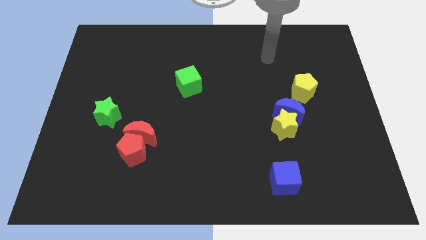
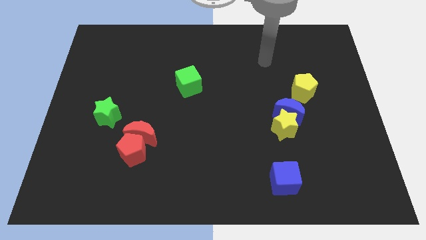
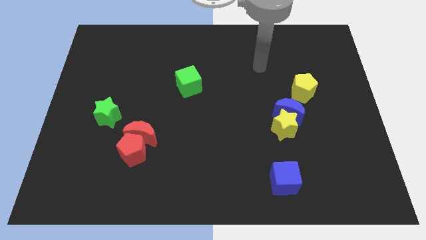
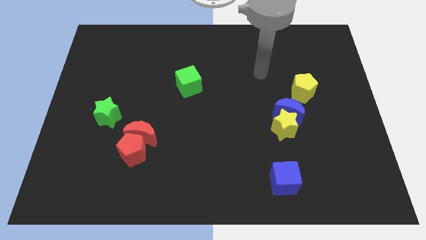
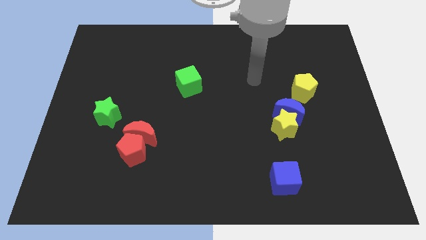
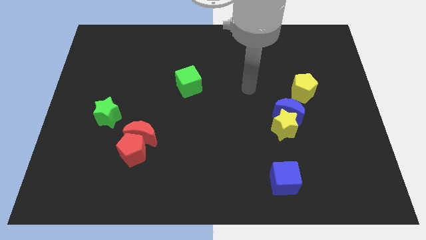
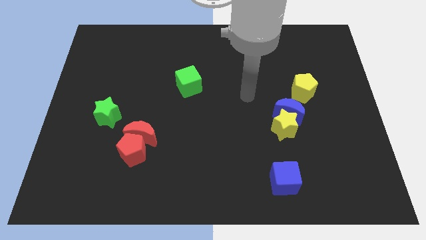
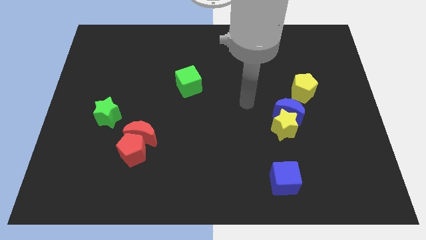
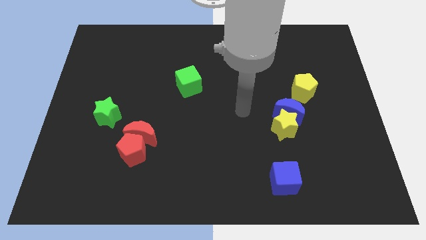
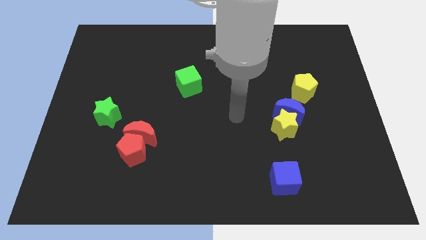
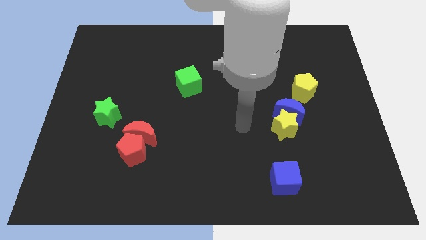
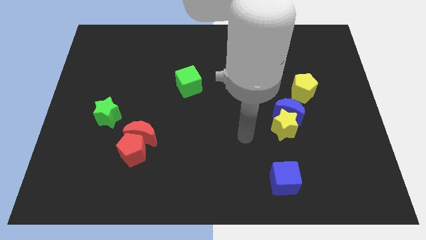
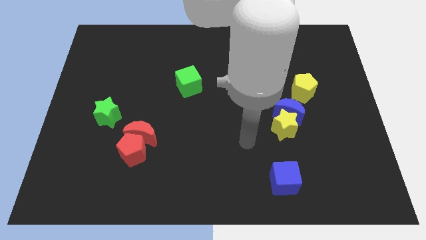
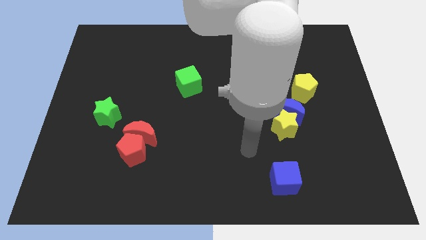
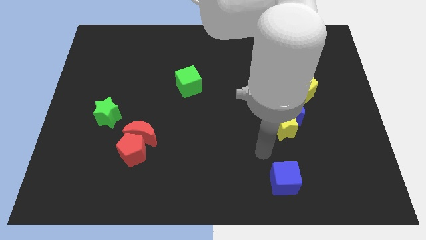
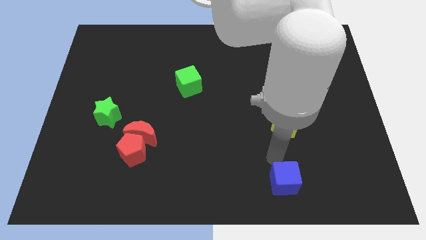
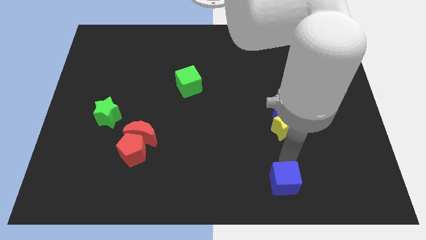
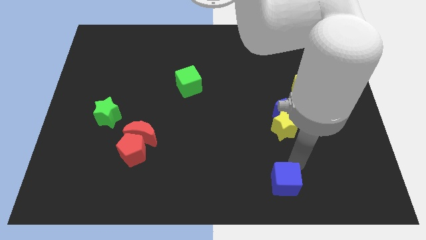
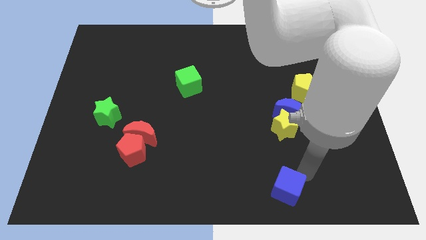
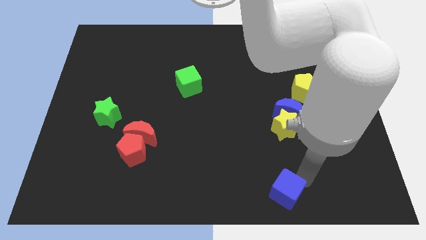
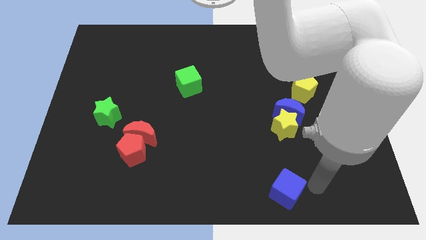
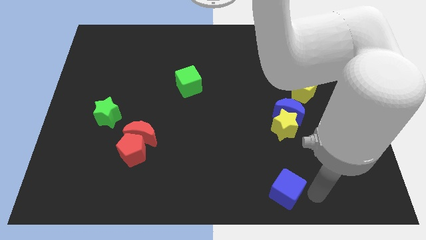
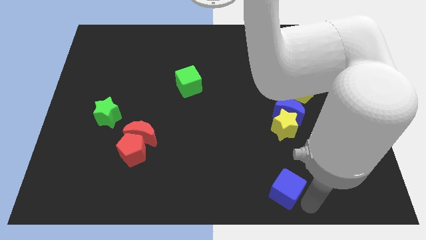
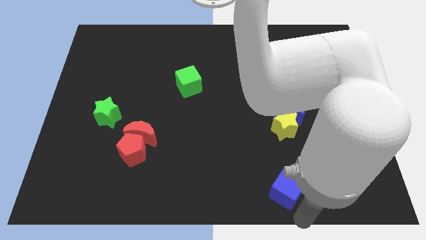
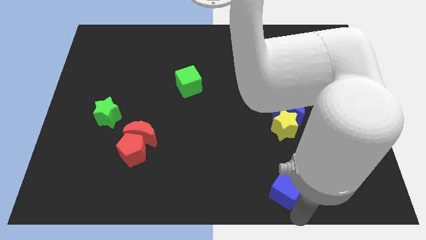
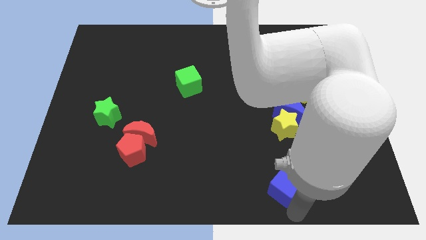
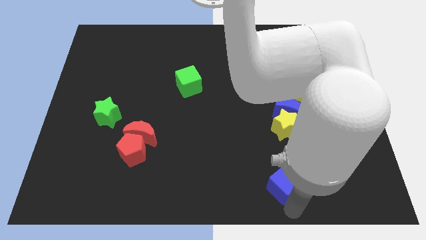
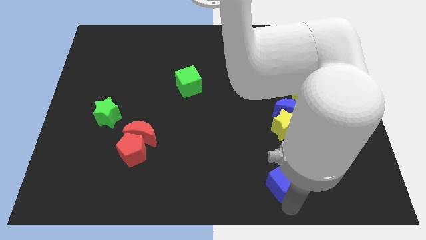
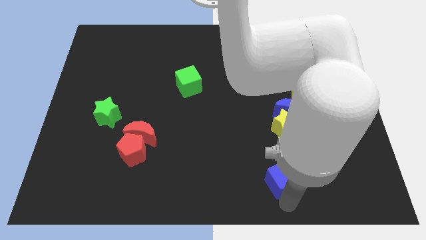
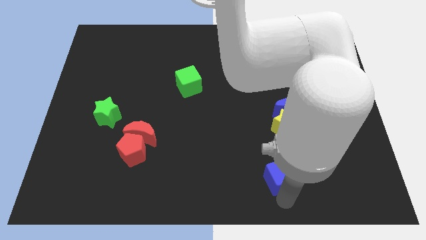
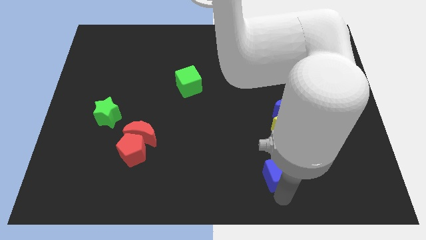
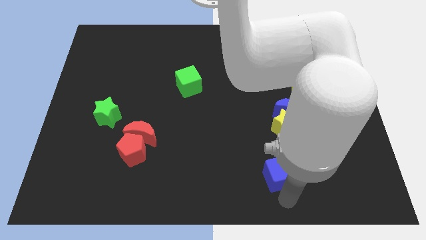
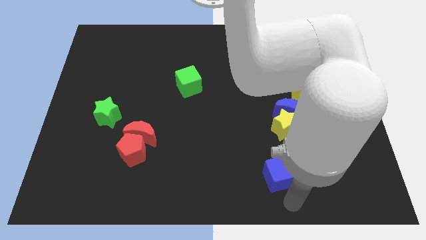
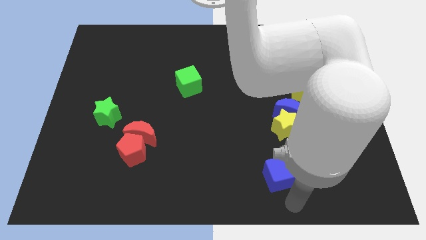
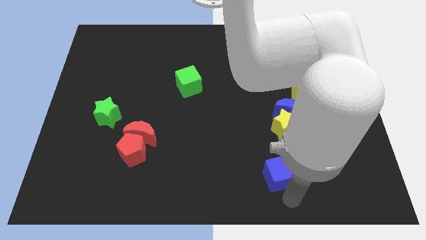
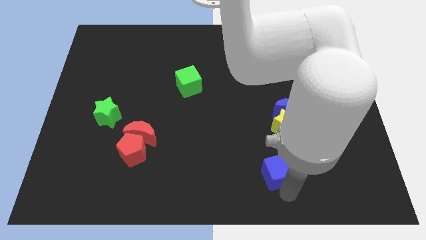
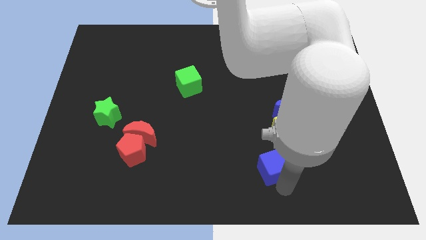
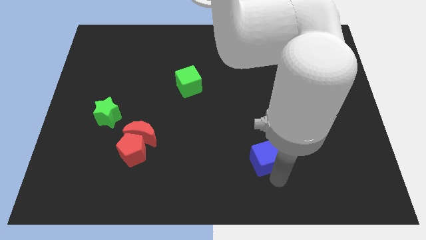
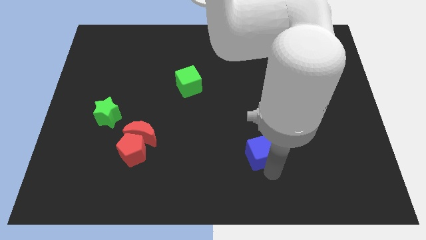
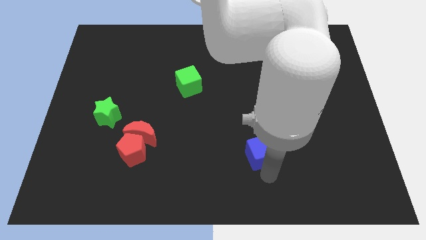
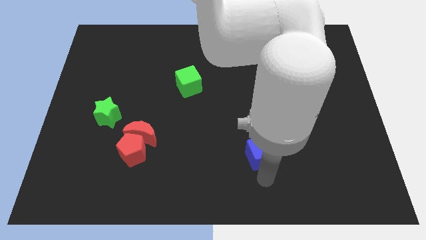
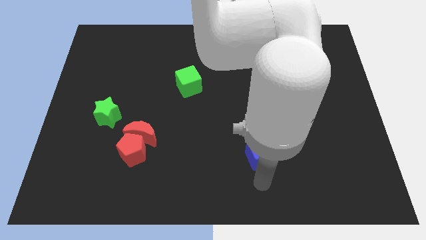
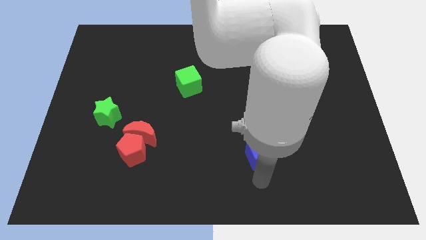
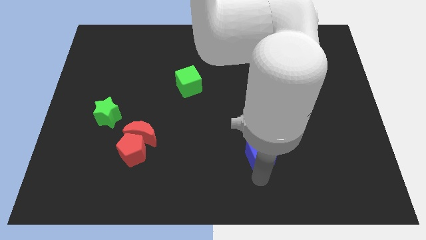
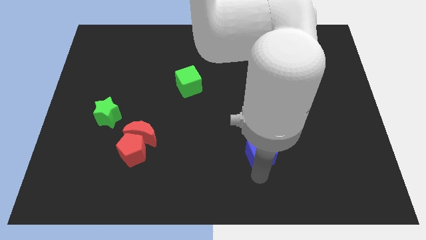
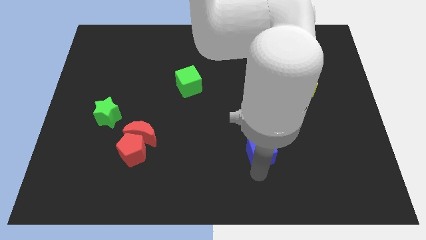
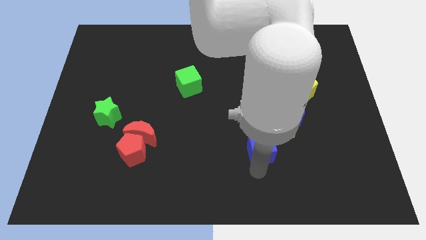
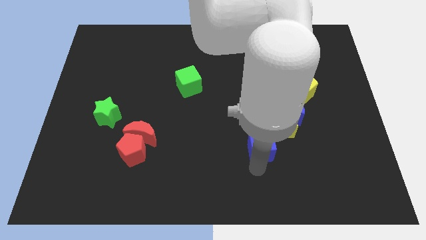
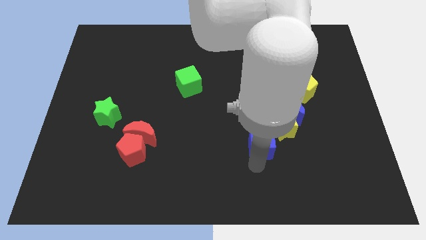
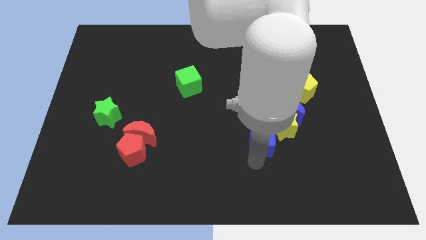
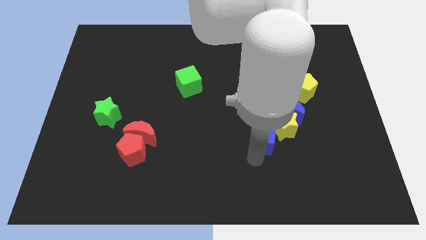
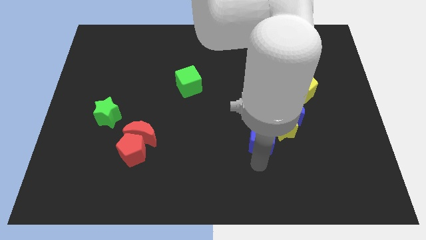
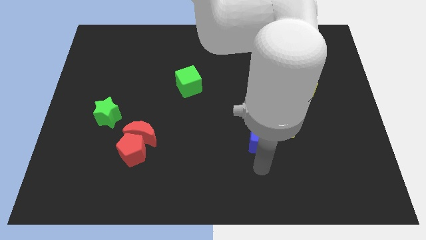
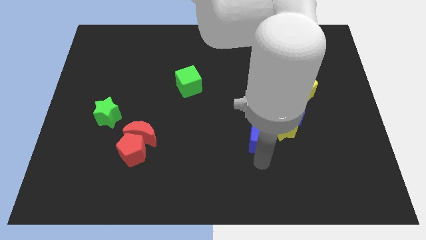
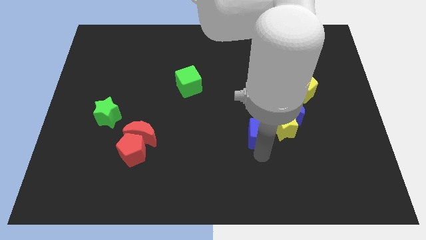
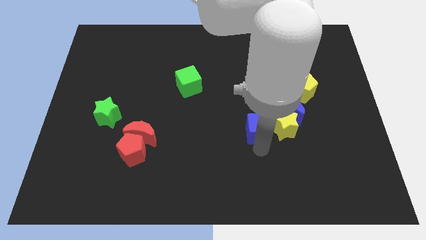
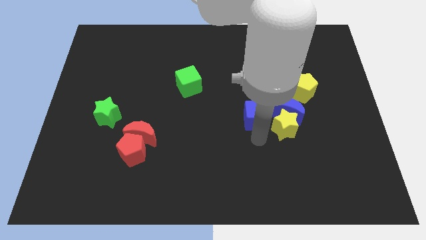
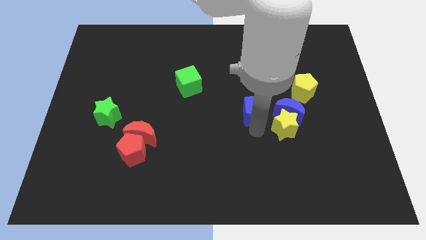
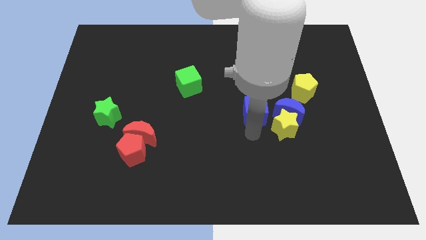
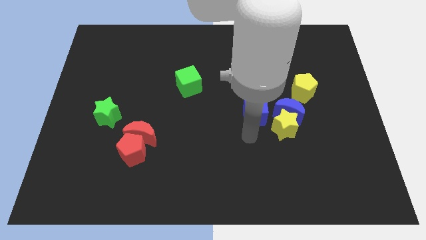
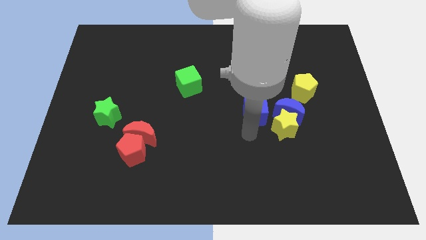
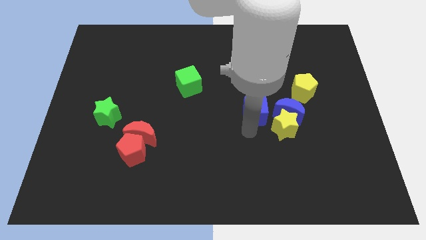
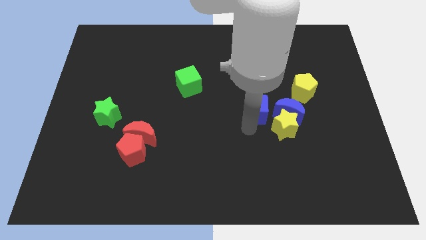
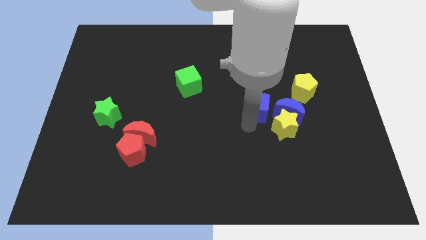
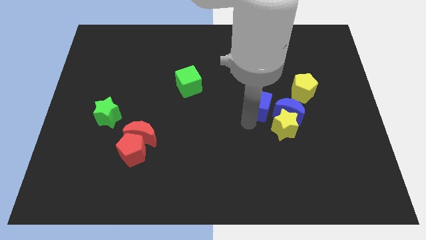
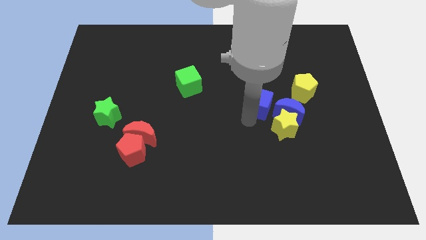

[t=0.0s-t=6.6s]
slide the blue cube to the left of the yellow pentagon
